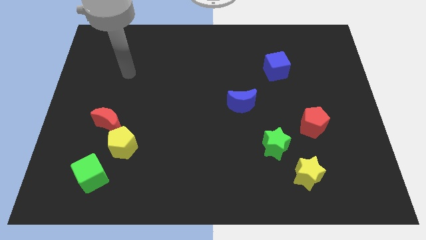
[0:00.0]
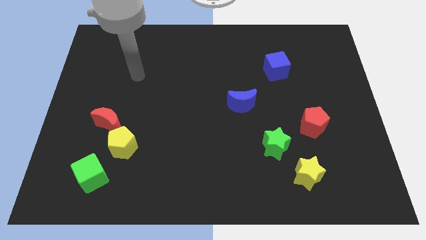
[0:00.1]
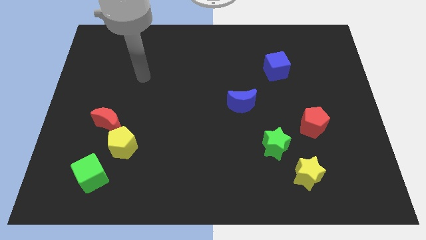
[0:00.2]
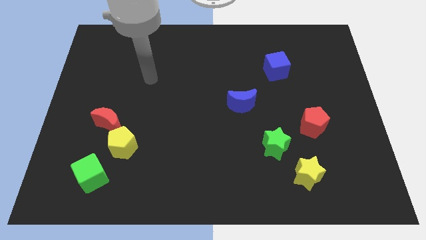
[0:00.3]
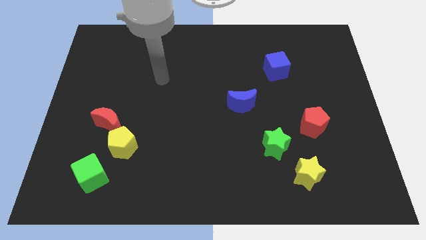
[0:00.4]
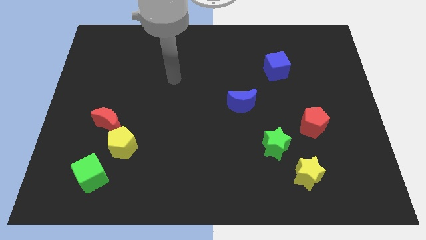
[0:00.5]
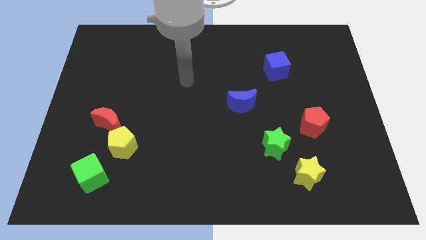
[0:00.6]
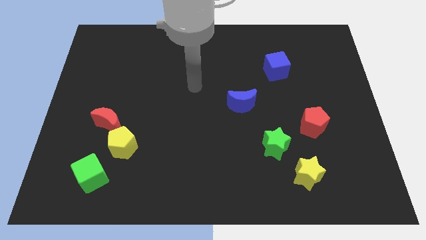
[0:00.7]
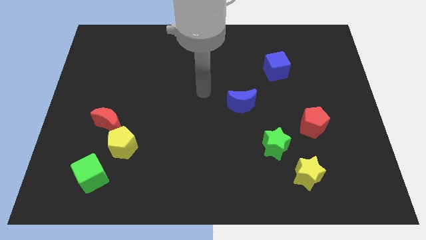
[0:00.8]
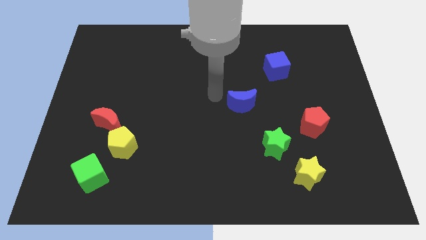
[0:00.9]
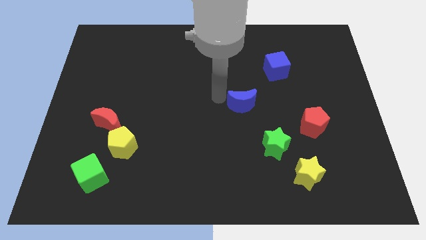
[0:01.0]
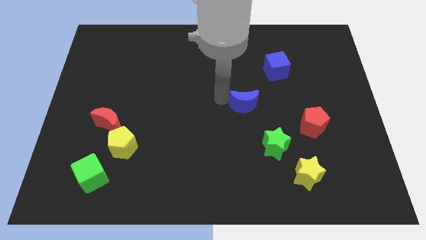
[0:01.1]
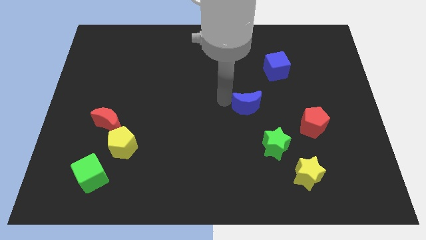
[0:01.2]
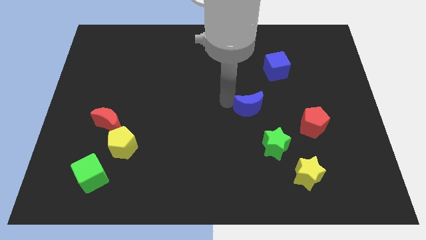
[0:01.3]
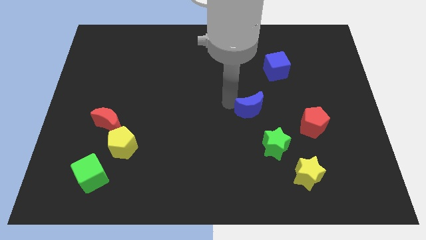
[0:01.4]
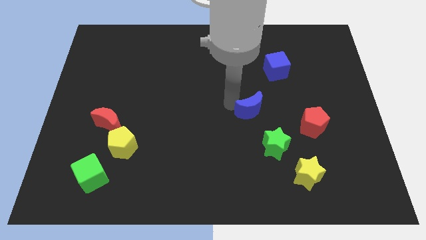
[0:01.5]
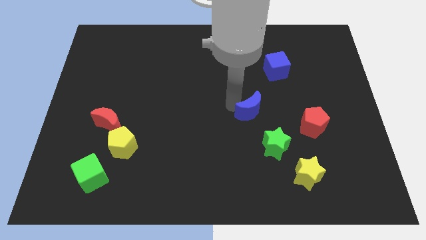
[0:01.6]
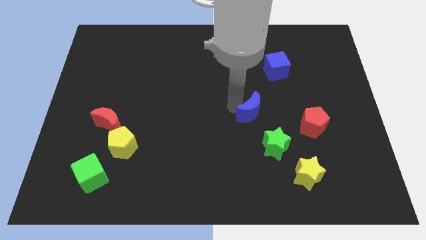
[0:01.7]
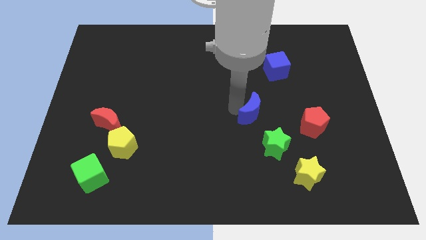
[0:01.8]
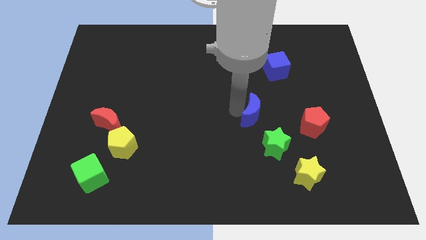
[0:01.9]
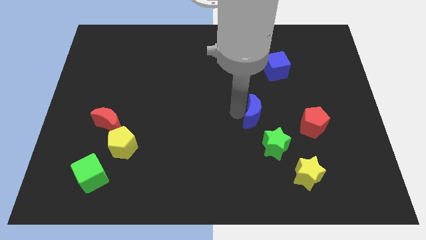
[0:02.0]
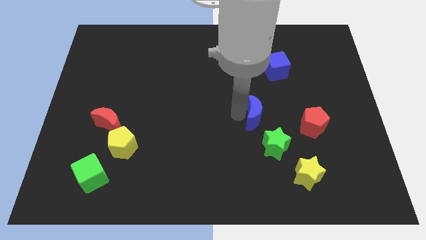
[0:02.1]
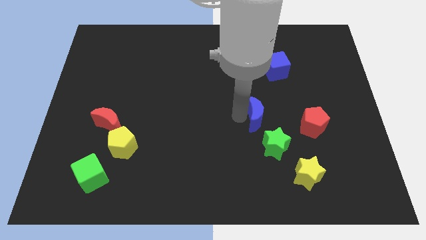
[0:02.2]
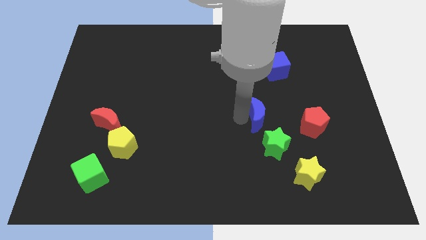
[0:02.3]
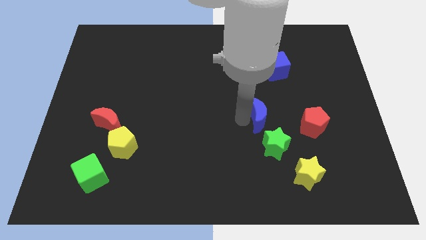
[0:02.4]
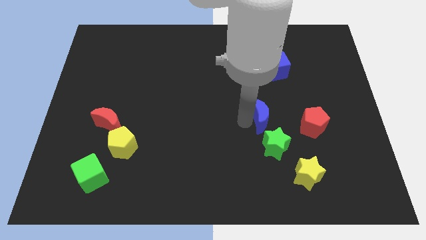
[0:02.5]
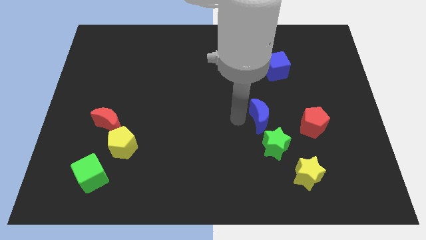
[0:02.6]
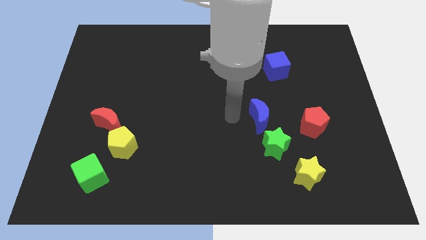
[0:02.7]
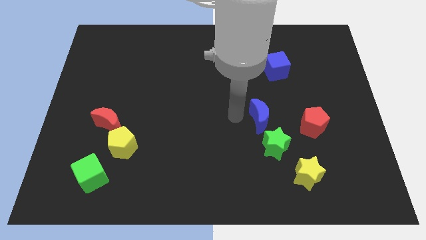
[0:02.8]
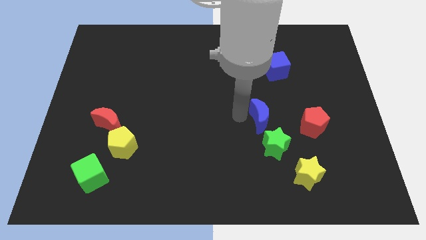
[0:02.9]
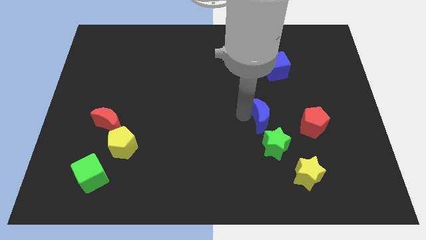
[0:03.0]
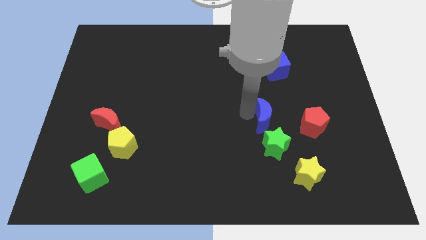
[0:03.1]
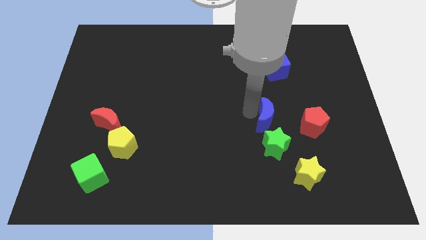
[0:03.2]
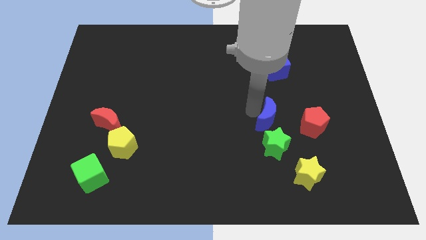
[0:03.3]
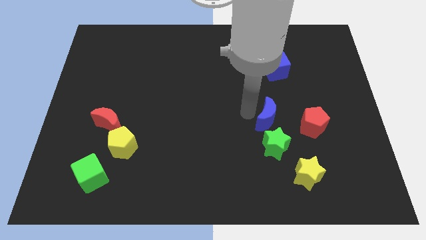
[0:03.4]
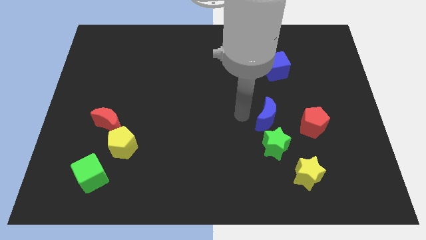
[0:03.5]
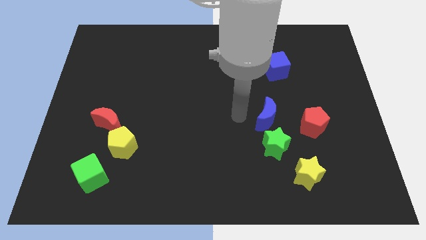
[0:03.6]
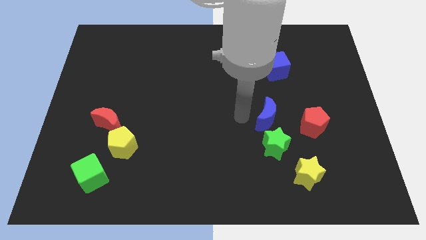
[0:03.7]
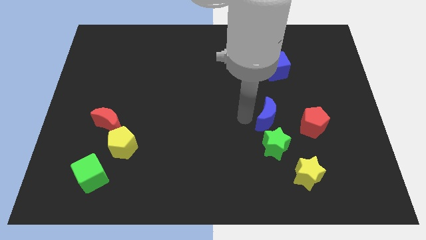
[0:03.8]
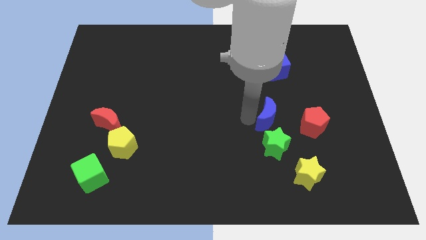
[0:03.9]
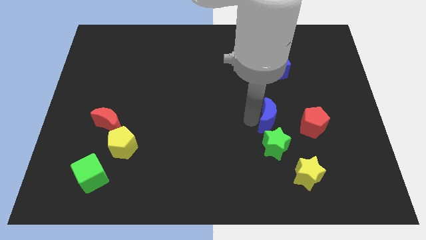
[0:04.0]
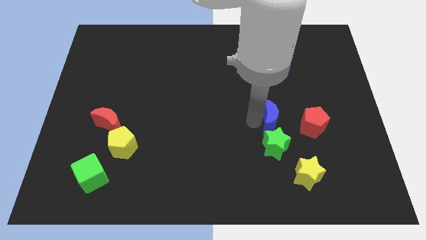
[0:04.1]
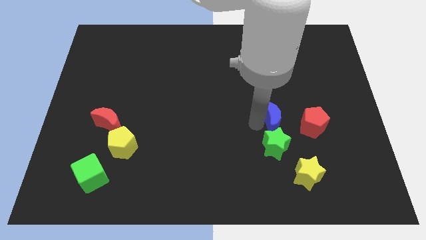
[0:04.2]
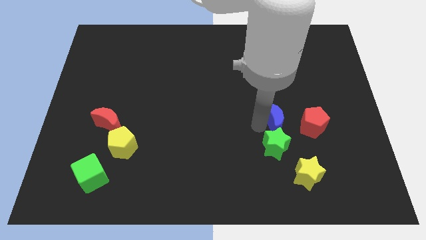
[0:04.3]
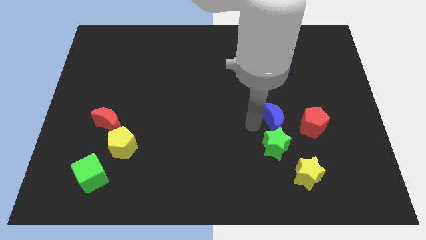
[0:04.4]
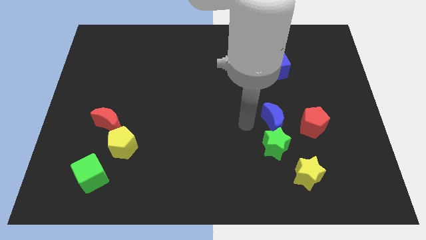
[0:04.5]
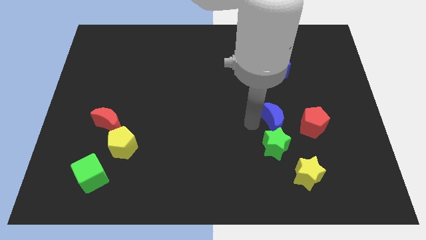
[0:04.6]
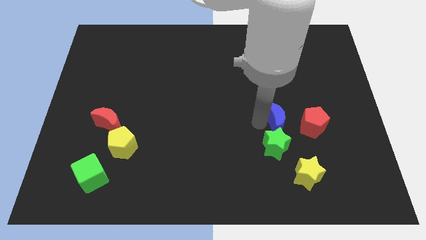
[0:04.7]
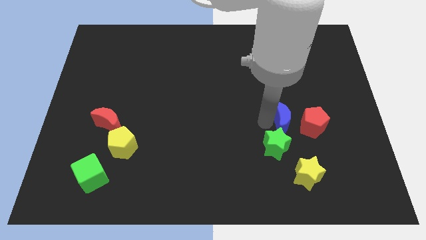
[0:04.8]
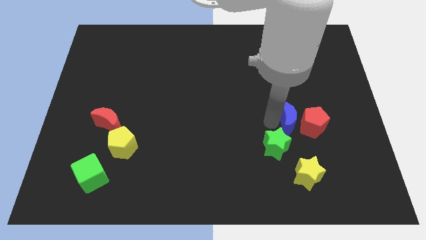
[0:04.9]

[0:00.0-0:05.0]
slide the blue moon close to the red pentagon

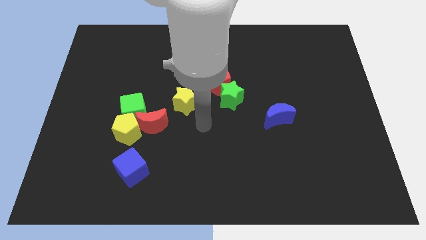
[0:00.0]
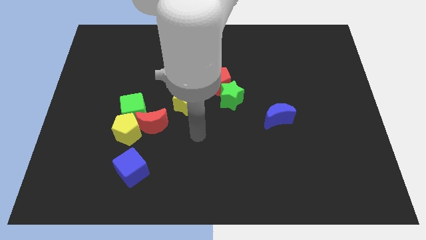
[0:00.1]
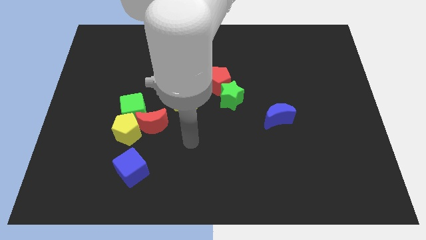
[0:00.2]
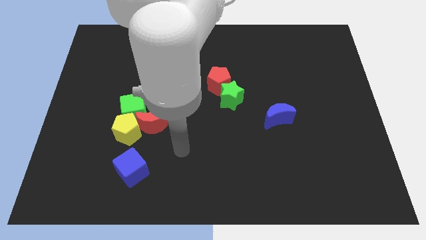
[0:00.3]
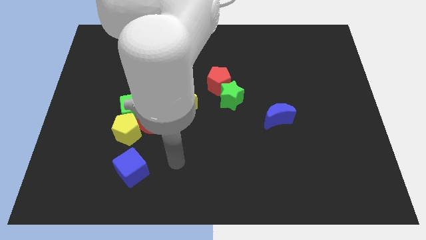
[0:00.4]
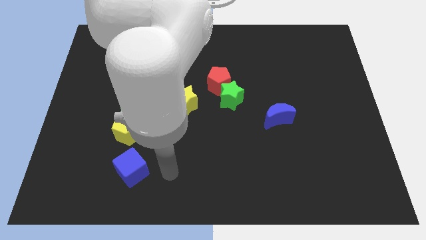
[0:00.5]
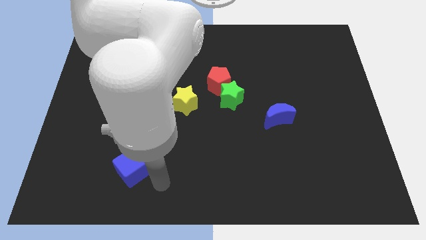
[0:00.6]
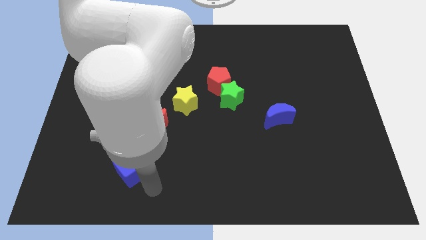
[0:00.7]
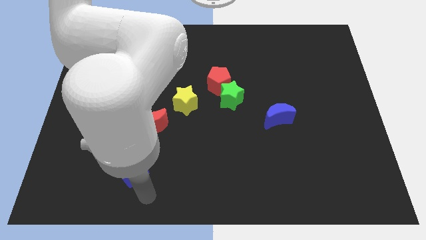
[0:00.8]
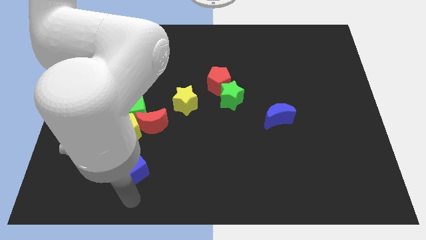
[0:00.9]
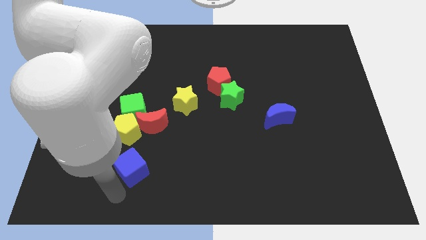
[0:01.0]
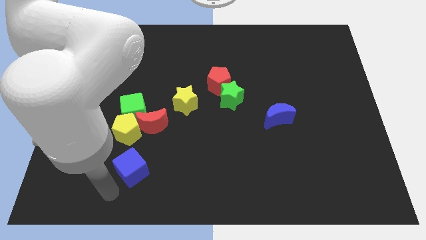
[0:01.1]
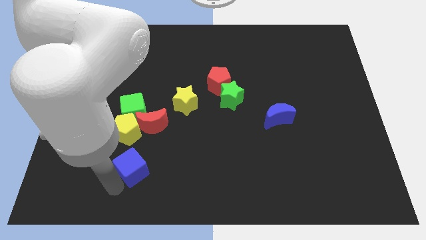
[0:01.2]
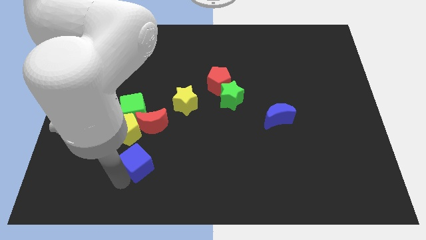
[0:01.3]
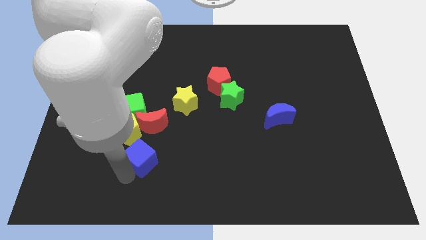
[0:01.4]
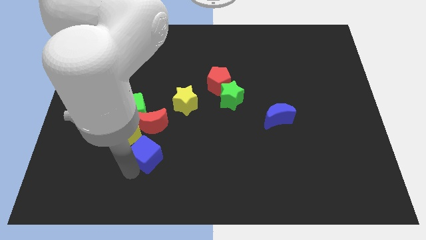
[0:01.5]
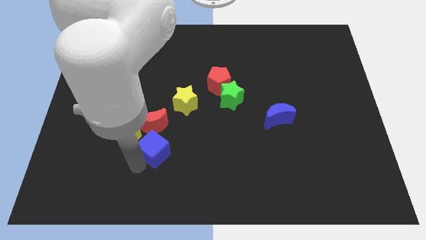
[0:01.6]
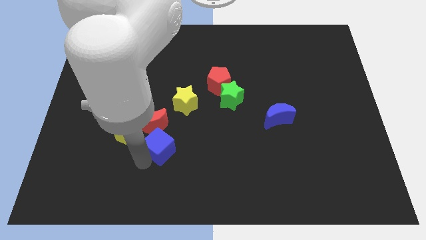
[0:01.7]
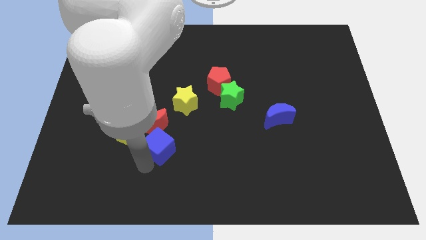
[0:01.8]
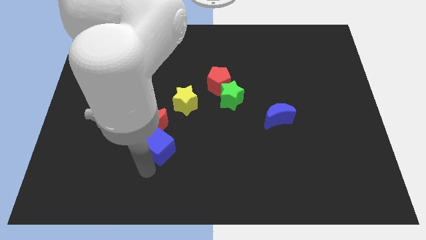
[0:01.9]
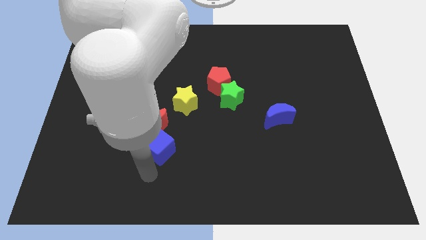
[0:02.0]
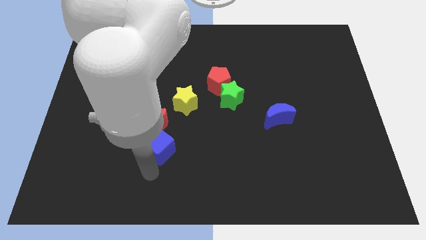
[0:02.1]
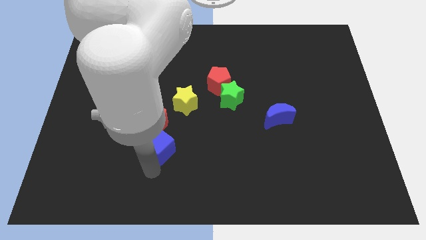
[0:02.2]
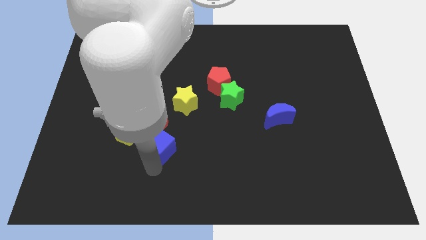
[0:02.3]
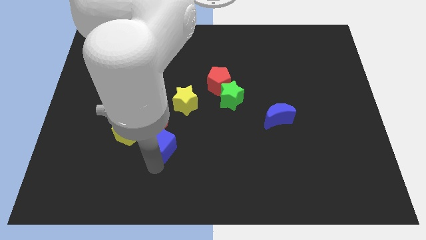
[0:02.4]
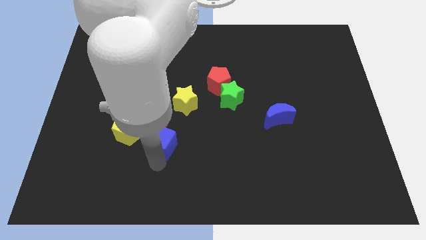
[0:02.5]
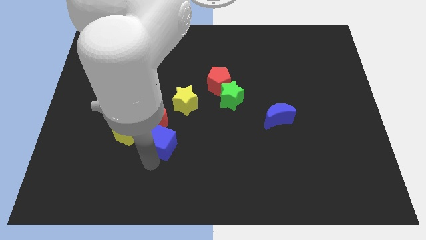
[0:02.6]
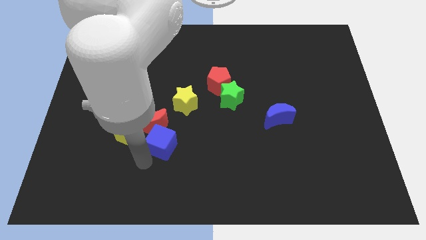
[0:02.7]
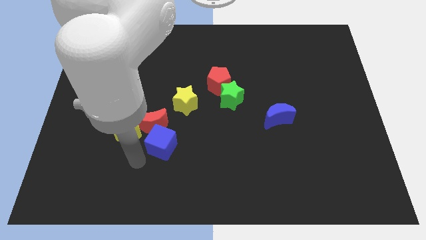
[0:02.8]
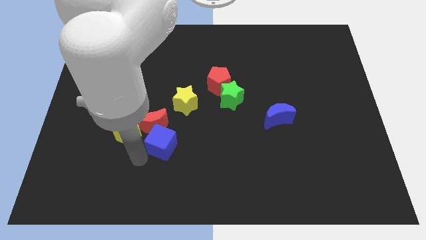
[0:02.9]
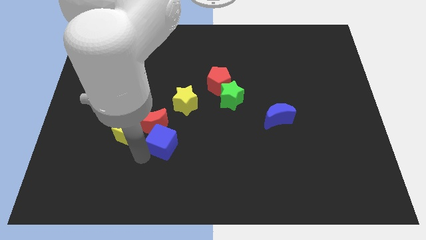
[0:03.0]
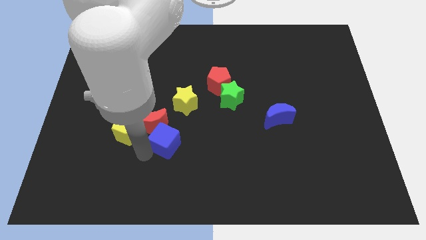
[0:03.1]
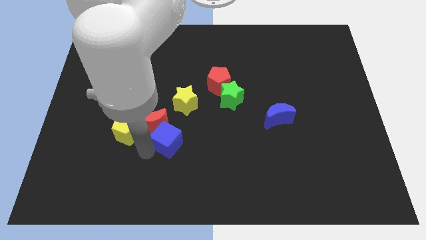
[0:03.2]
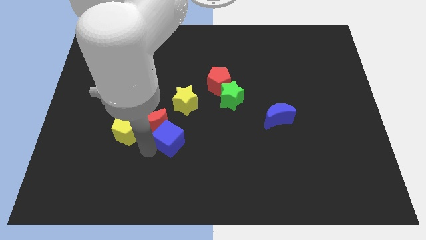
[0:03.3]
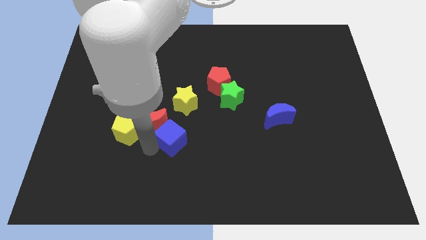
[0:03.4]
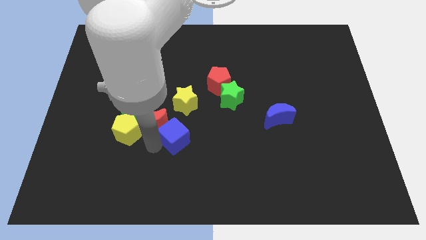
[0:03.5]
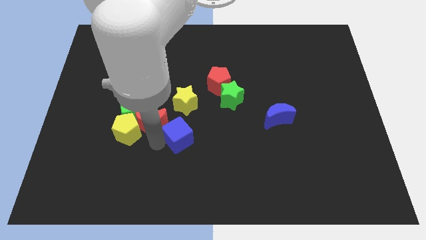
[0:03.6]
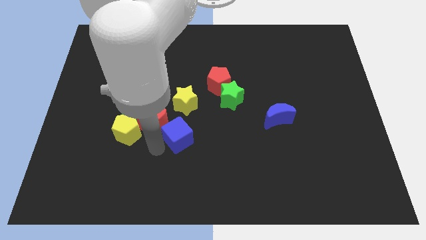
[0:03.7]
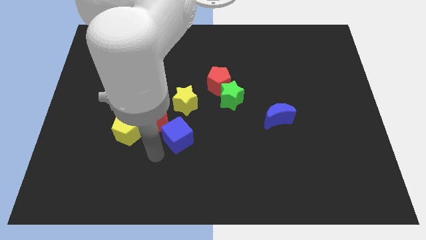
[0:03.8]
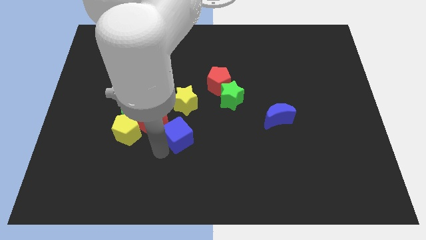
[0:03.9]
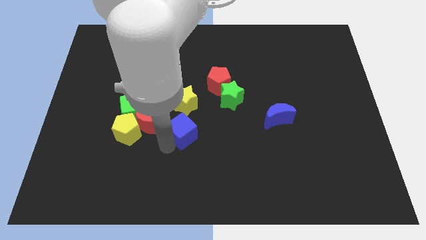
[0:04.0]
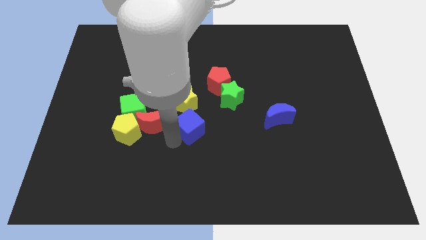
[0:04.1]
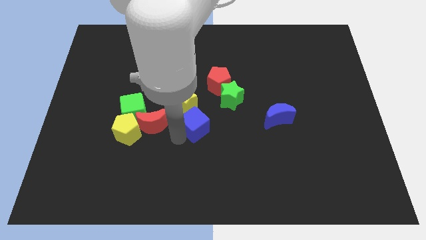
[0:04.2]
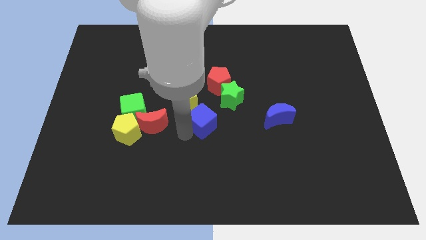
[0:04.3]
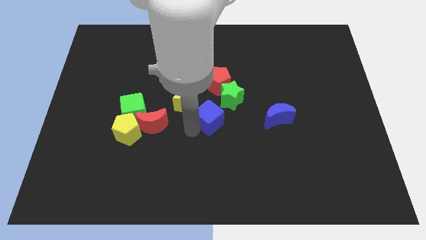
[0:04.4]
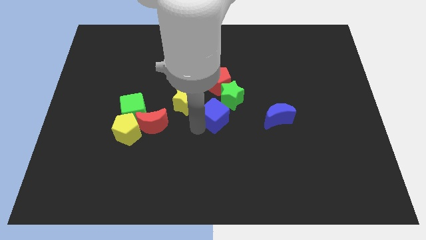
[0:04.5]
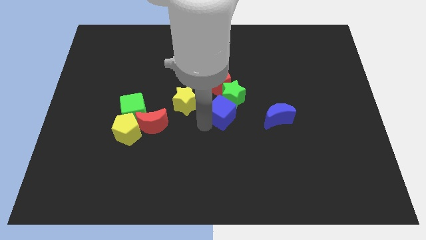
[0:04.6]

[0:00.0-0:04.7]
slide the blue cube towards the green star
